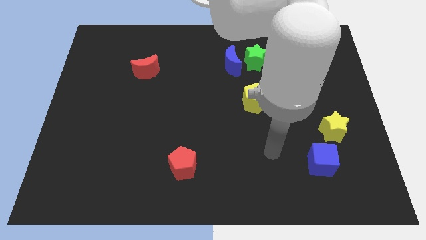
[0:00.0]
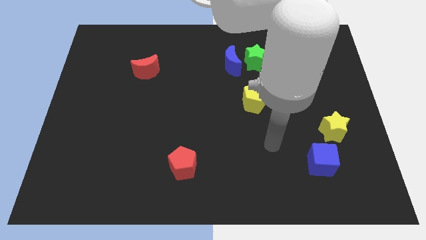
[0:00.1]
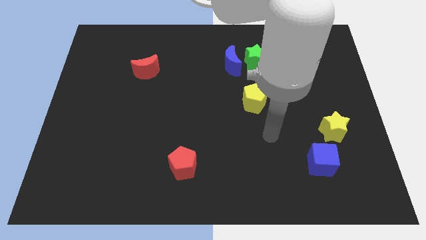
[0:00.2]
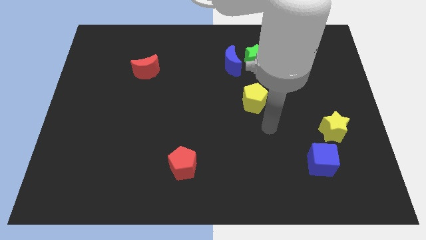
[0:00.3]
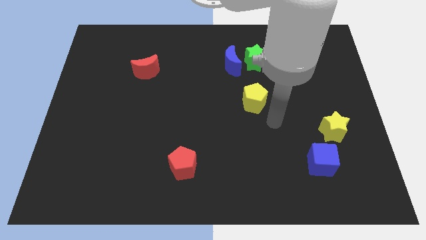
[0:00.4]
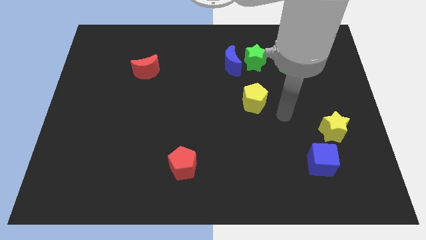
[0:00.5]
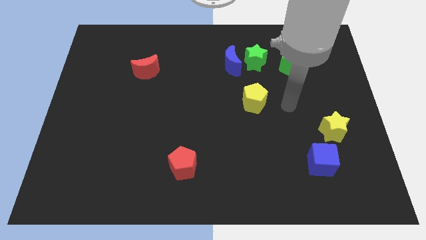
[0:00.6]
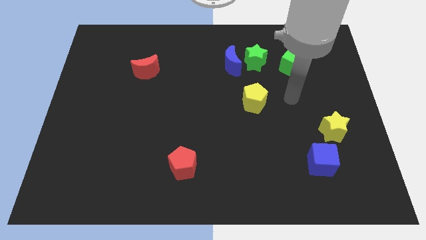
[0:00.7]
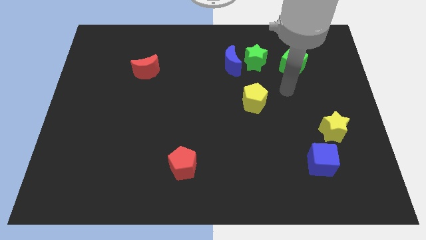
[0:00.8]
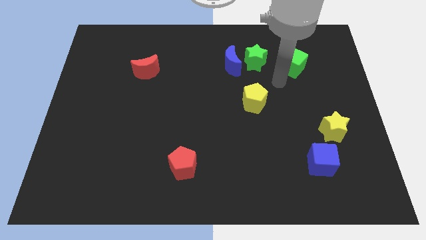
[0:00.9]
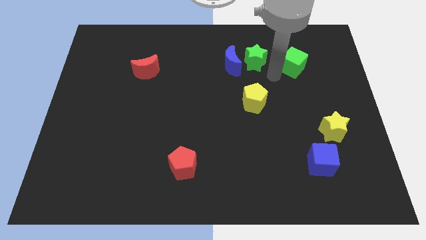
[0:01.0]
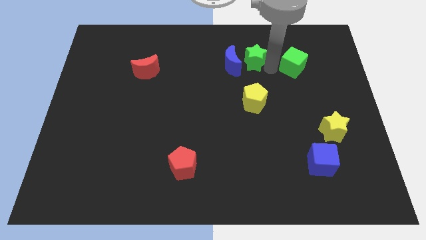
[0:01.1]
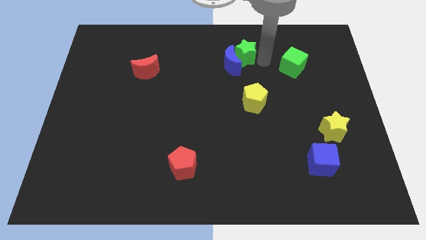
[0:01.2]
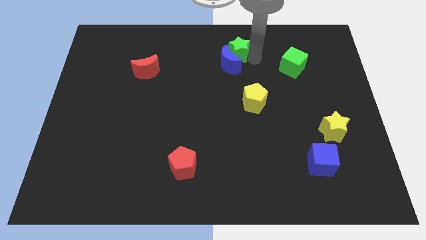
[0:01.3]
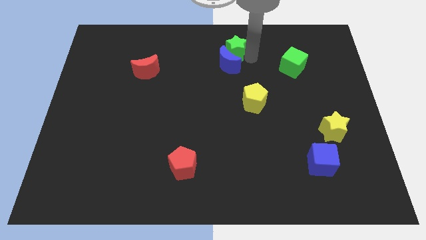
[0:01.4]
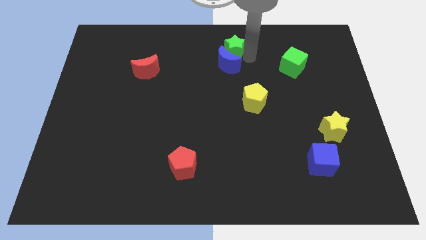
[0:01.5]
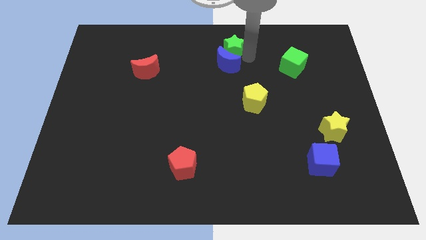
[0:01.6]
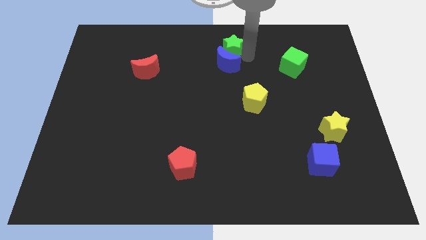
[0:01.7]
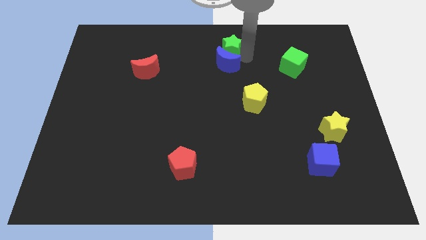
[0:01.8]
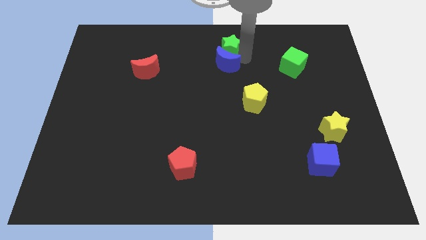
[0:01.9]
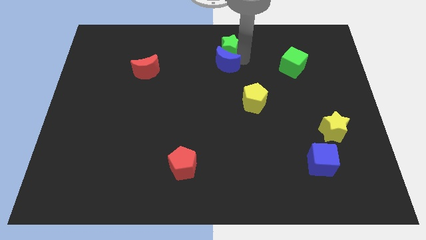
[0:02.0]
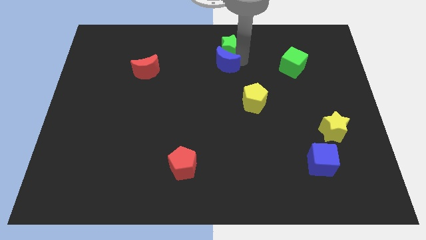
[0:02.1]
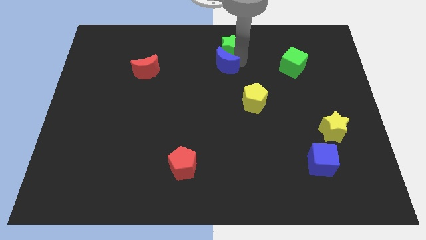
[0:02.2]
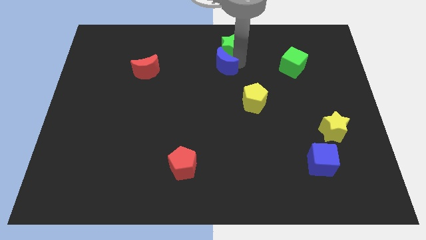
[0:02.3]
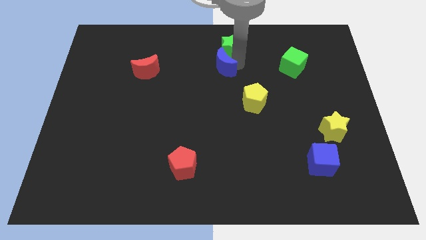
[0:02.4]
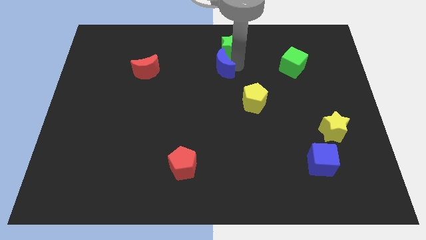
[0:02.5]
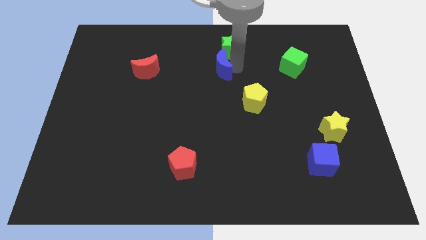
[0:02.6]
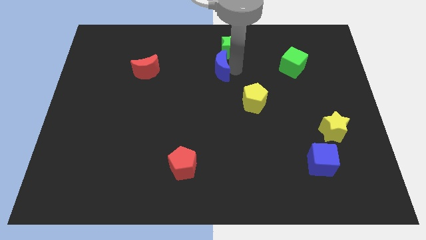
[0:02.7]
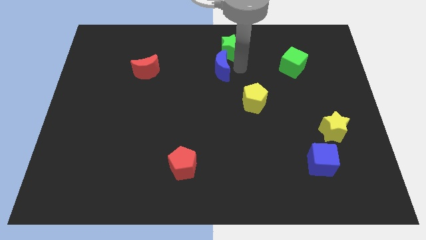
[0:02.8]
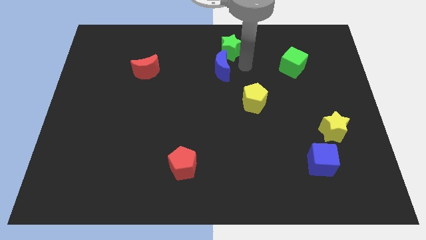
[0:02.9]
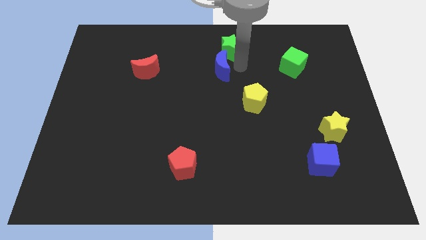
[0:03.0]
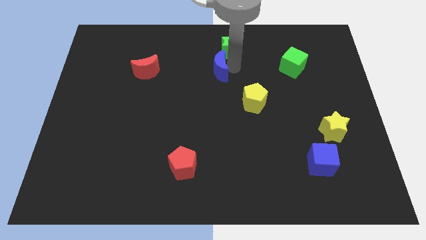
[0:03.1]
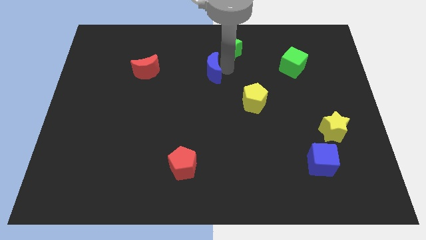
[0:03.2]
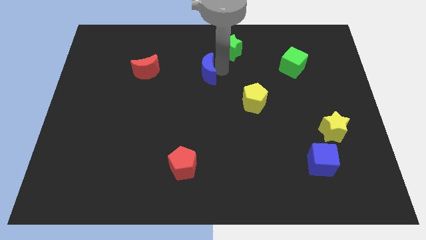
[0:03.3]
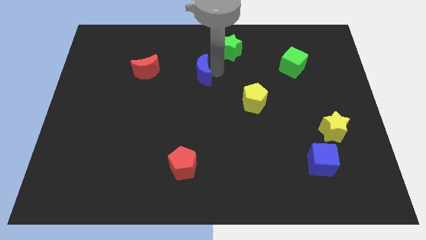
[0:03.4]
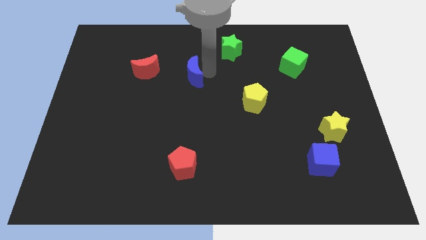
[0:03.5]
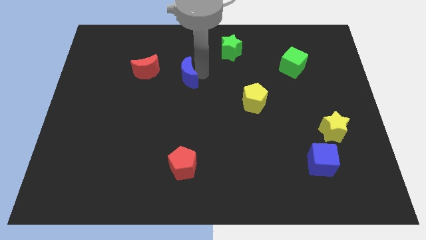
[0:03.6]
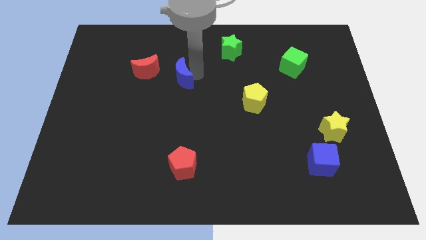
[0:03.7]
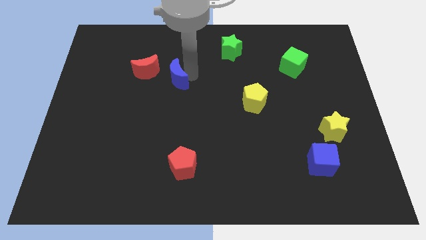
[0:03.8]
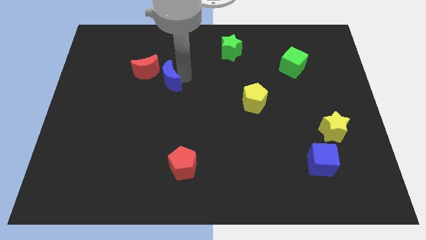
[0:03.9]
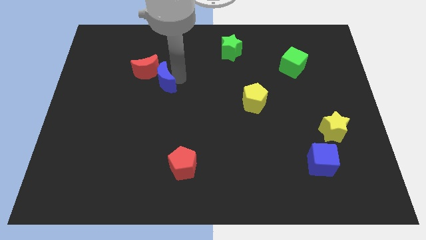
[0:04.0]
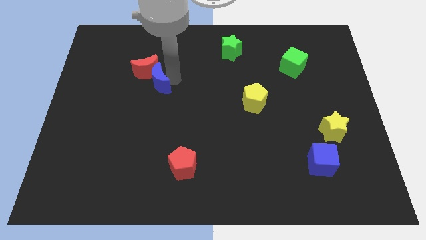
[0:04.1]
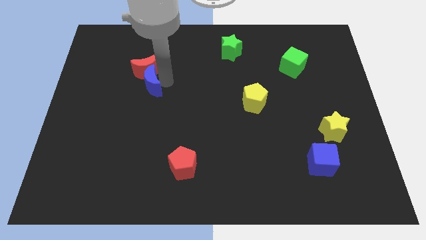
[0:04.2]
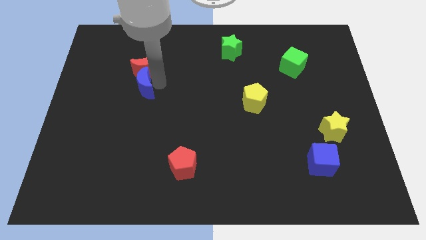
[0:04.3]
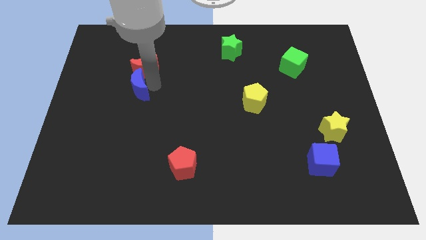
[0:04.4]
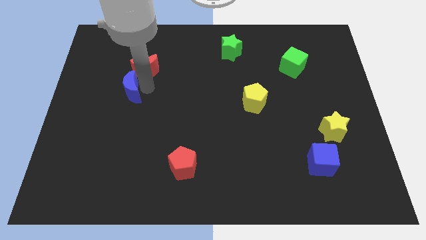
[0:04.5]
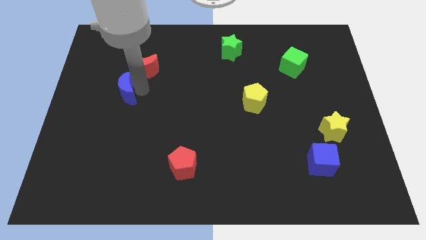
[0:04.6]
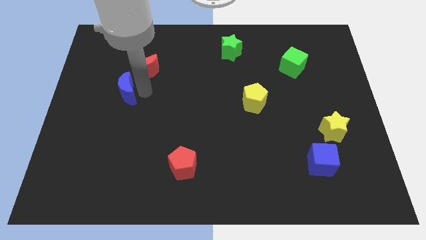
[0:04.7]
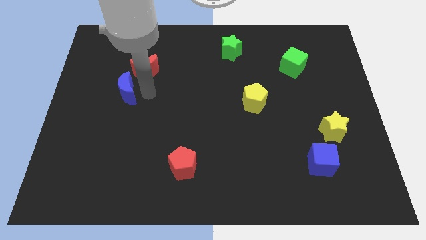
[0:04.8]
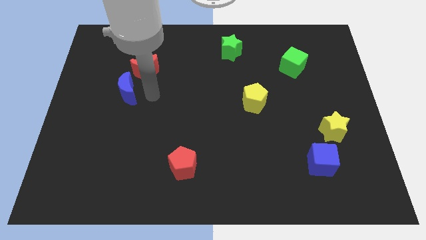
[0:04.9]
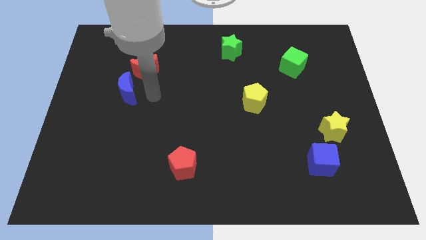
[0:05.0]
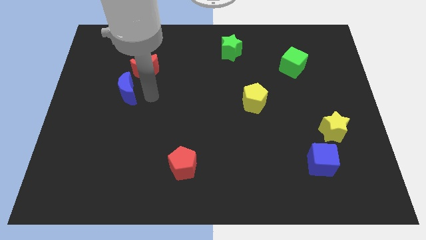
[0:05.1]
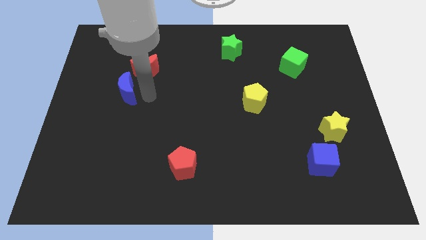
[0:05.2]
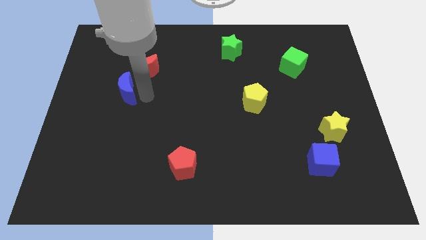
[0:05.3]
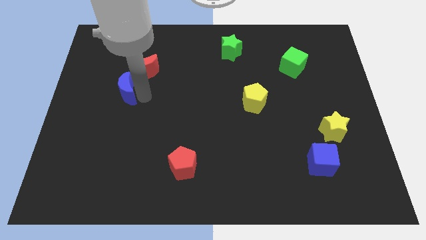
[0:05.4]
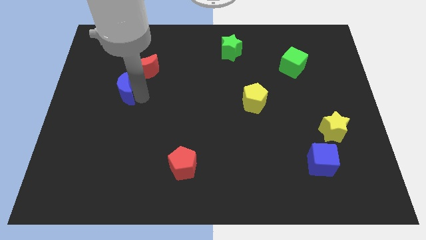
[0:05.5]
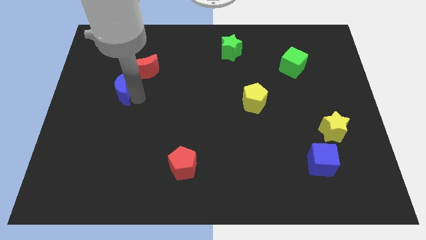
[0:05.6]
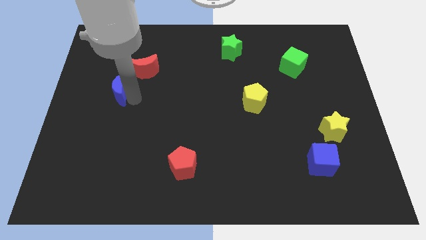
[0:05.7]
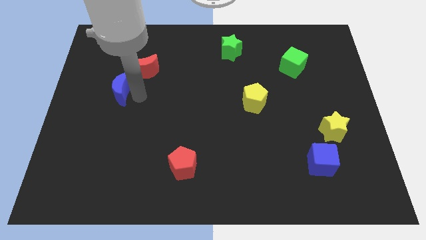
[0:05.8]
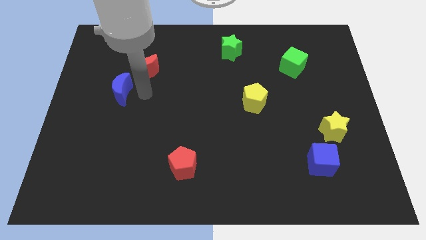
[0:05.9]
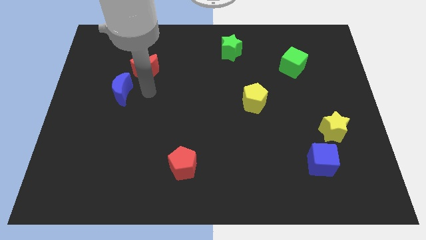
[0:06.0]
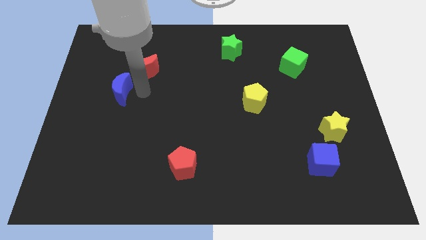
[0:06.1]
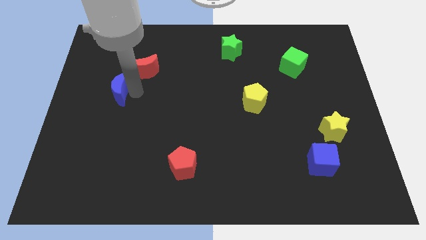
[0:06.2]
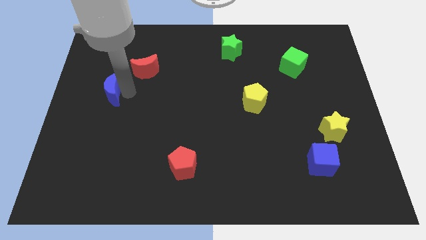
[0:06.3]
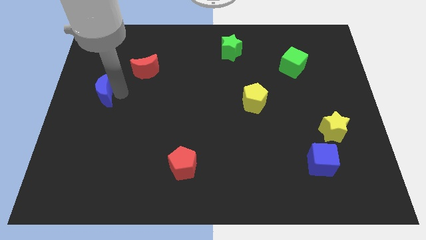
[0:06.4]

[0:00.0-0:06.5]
push the blue moon to the center left
